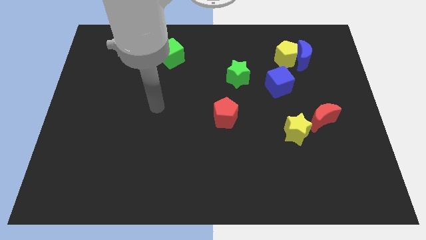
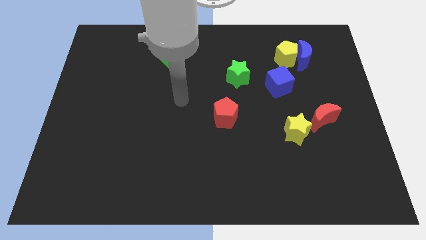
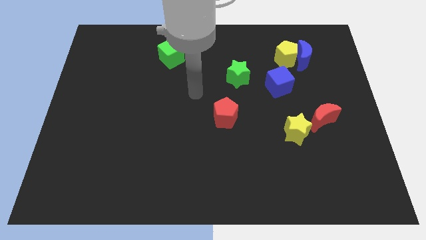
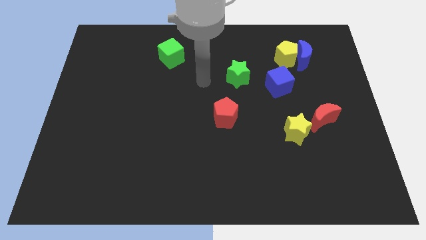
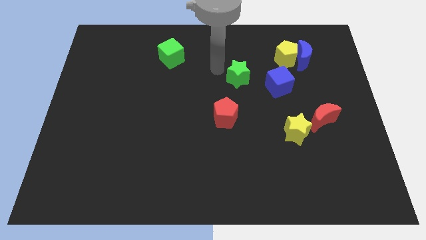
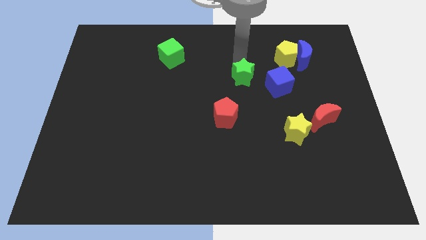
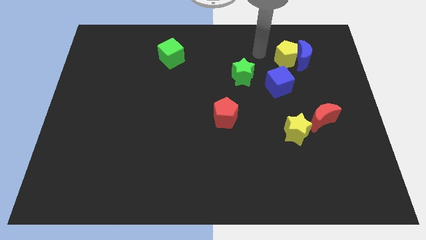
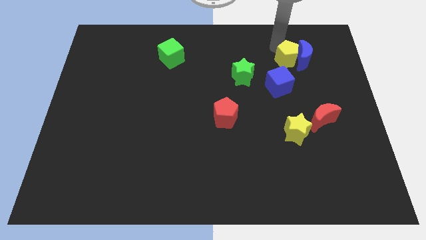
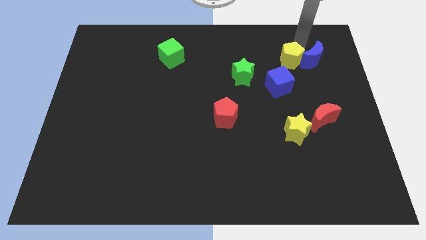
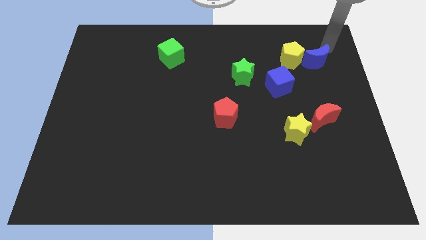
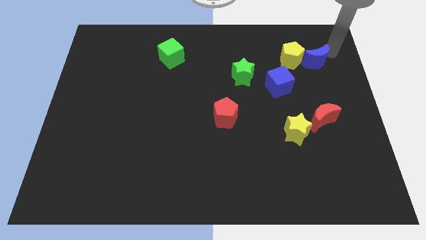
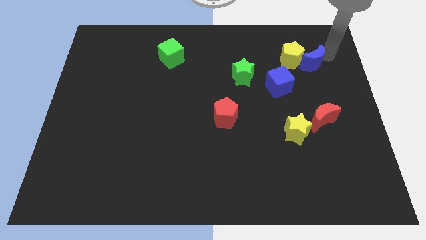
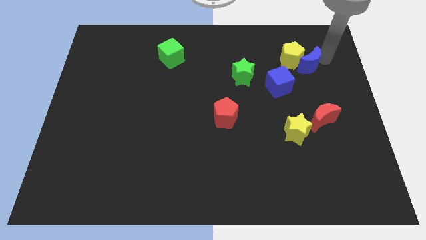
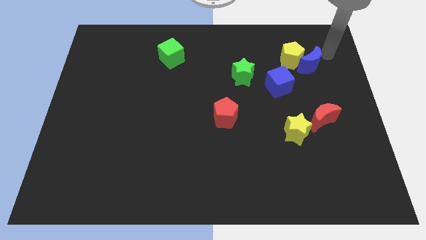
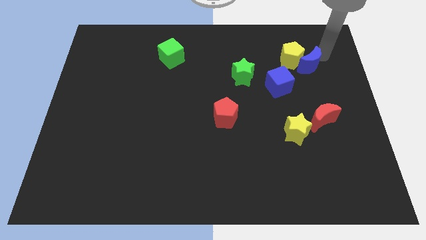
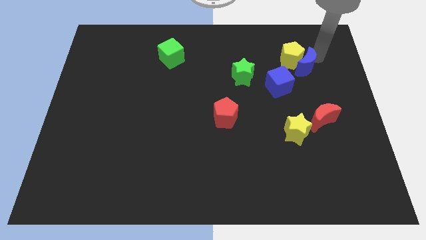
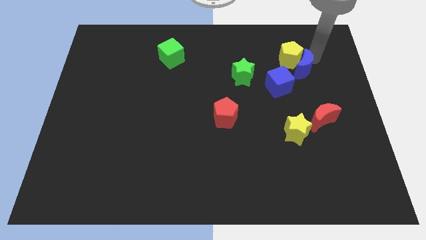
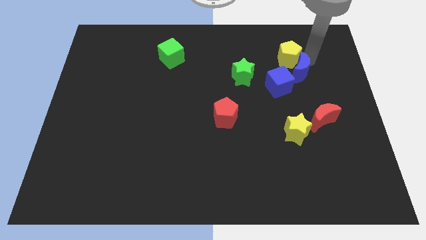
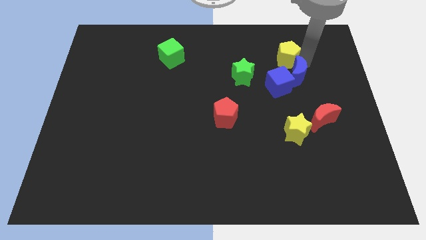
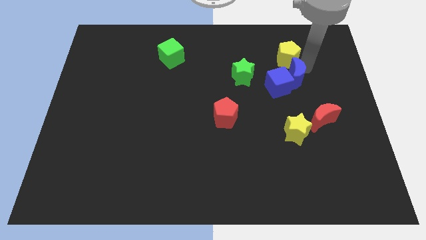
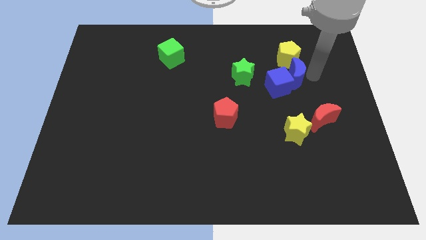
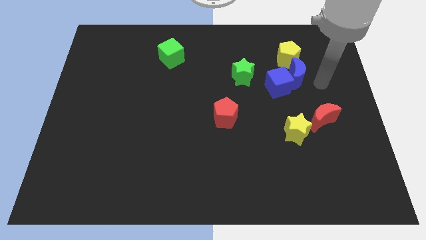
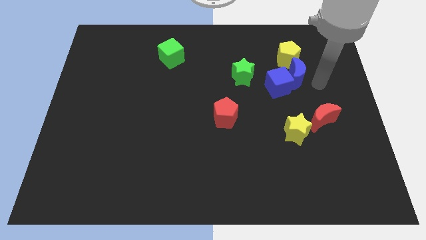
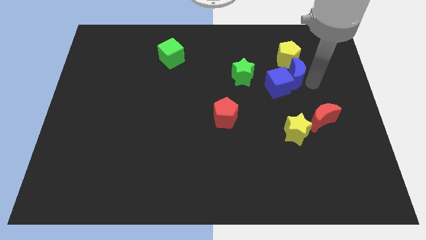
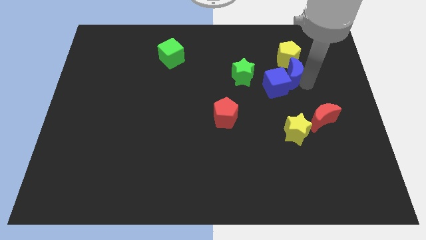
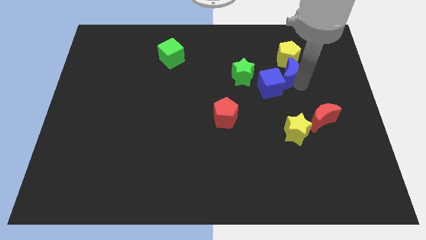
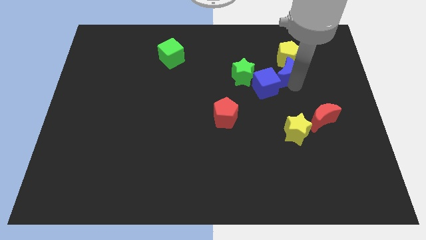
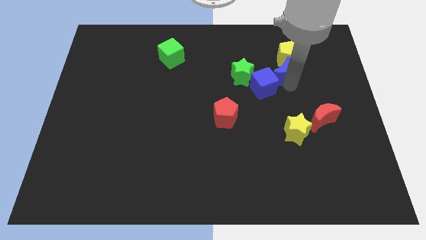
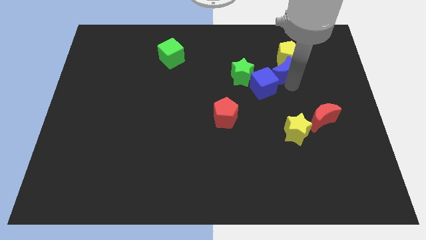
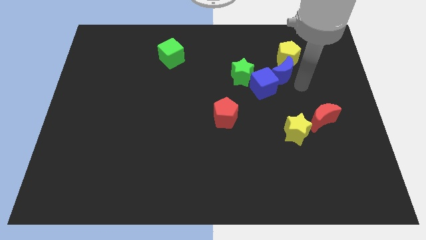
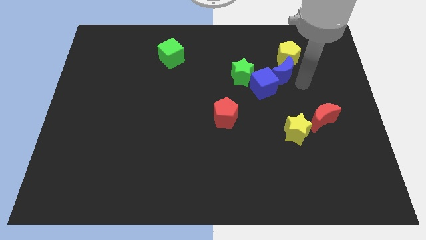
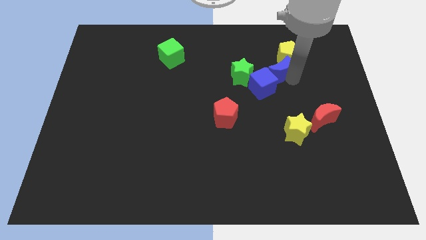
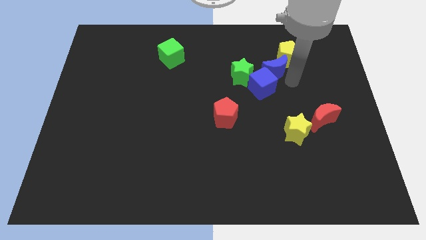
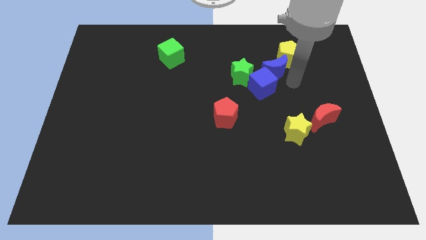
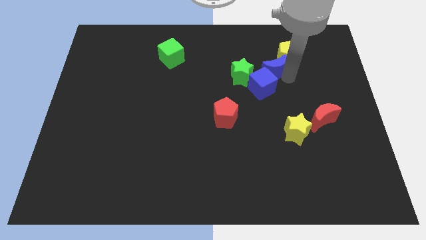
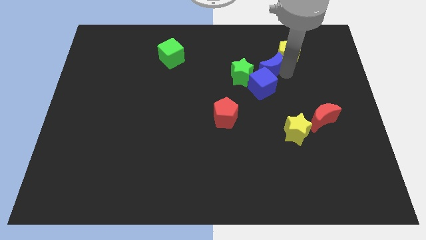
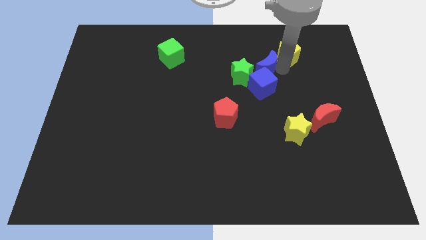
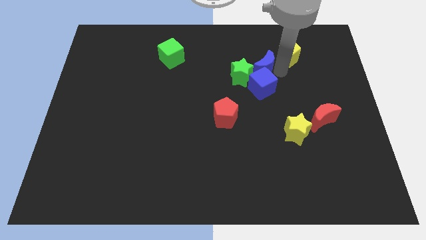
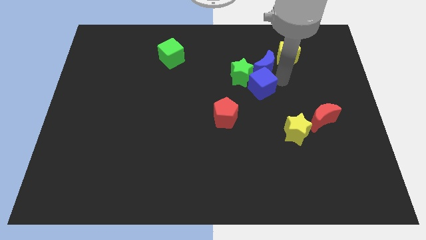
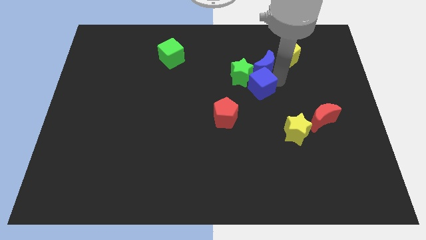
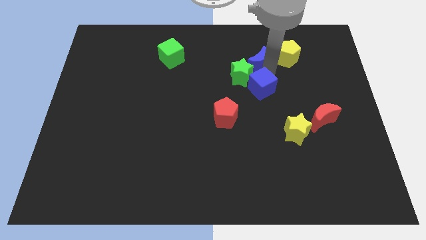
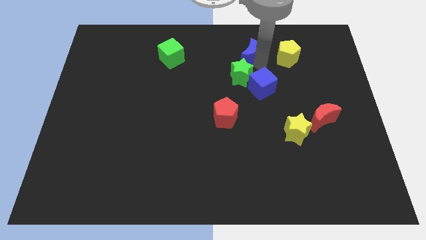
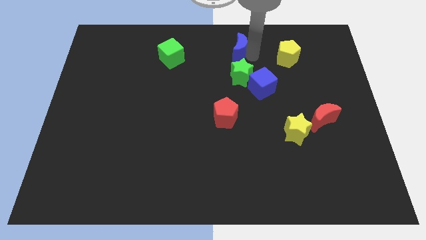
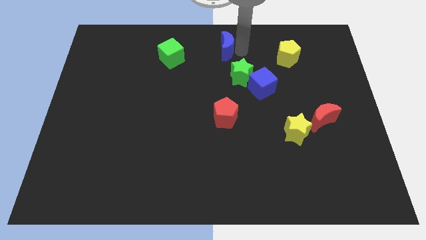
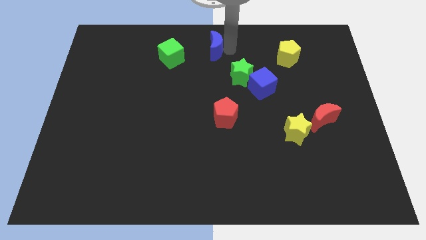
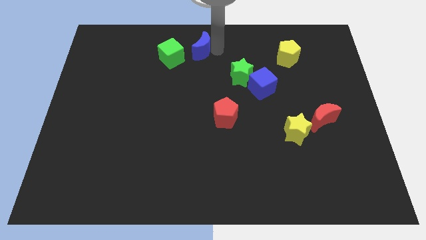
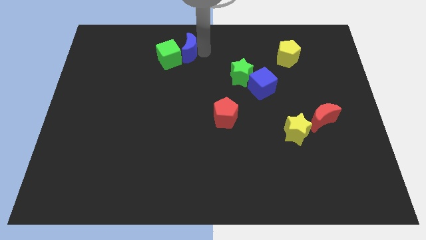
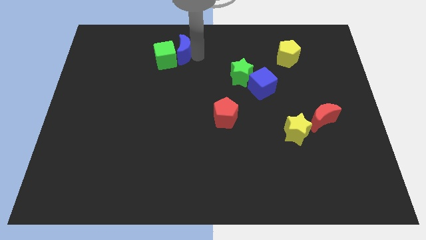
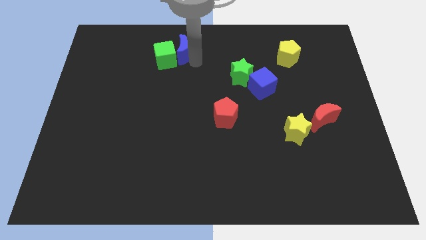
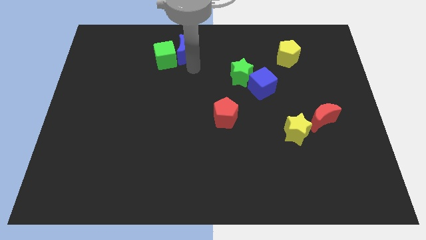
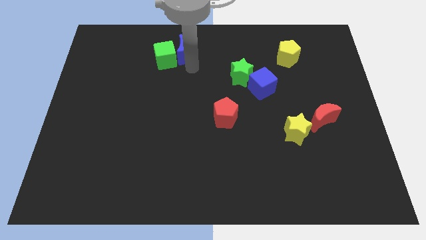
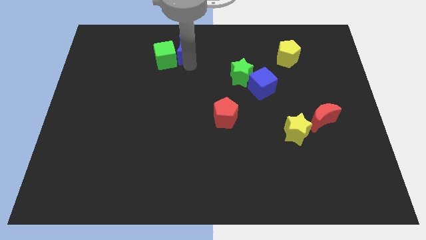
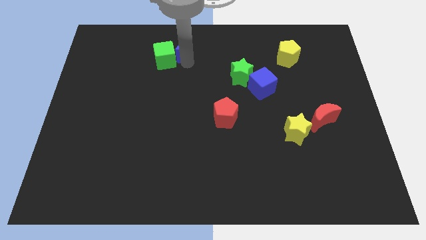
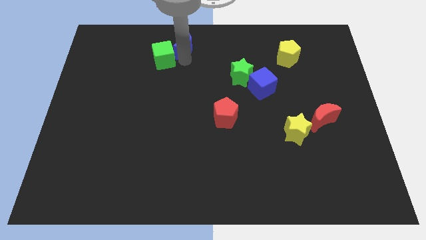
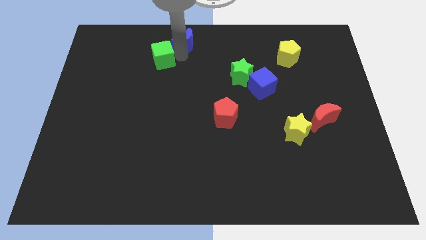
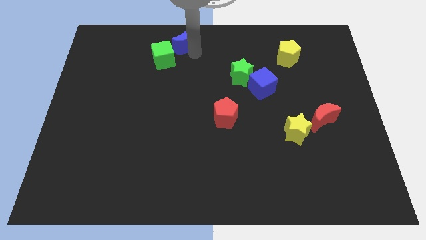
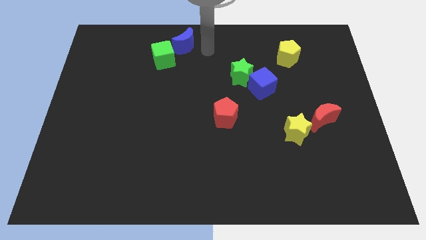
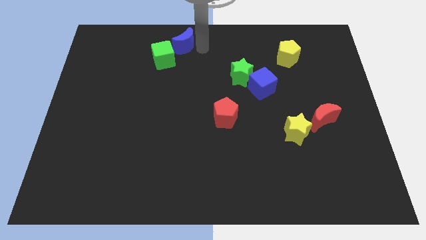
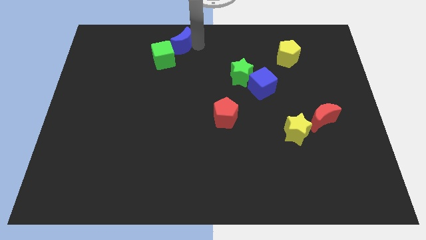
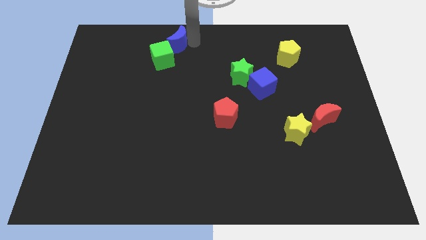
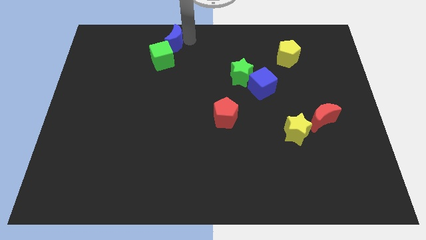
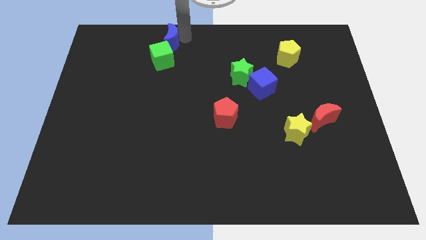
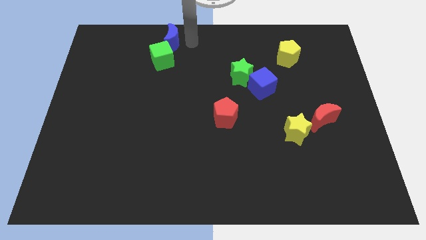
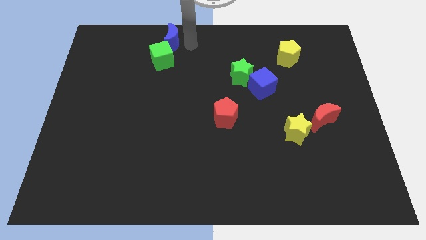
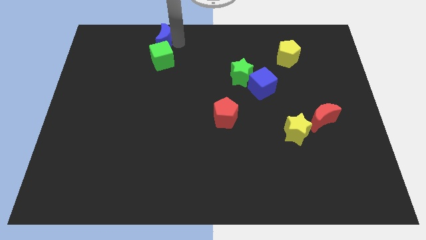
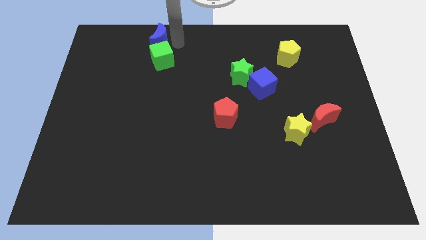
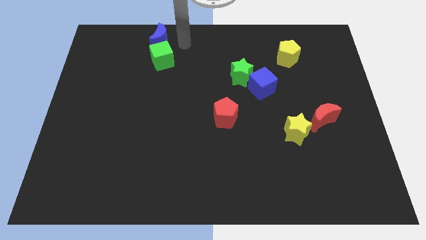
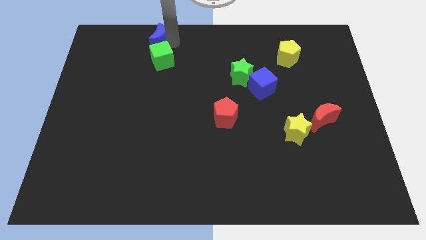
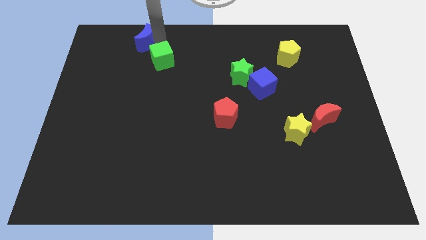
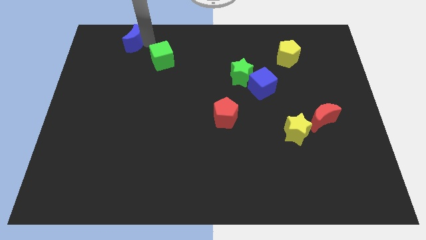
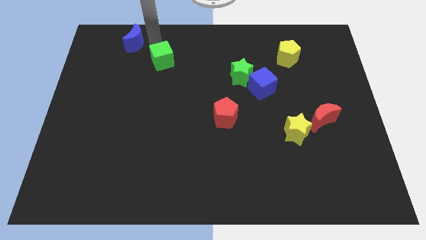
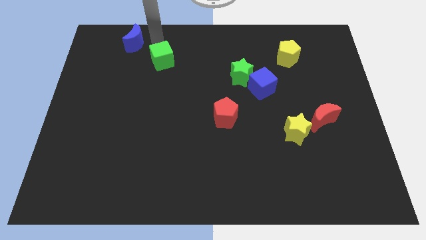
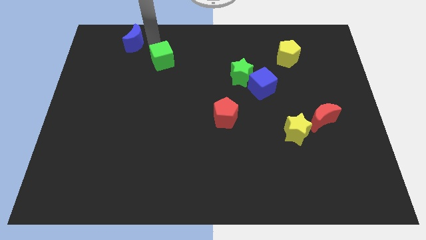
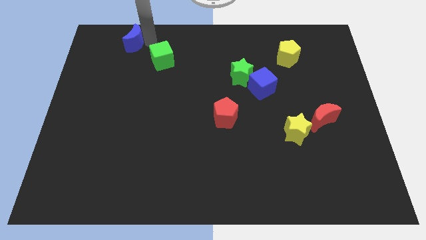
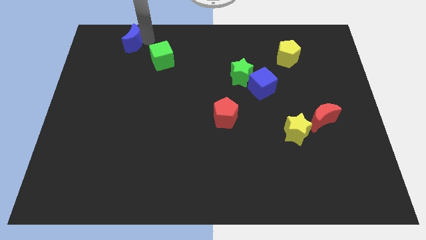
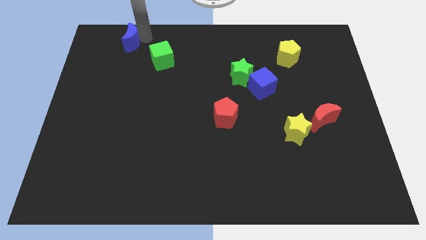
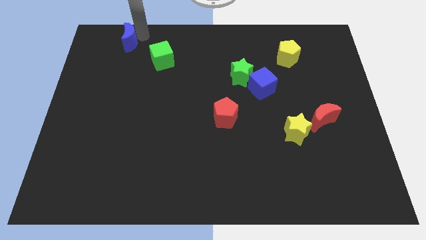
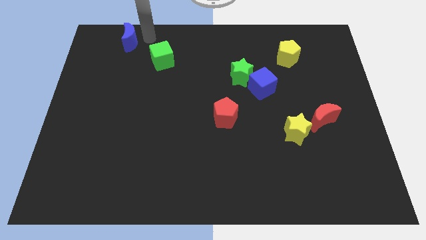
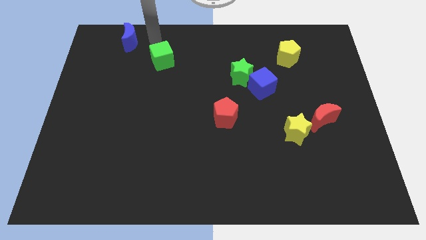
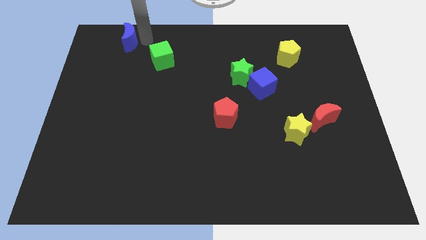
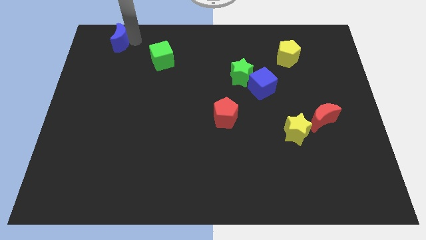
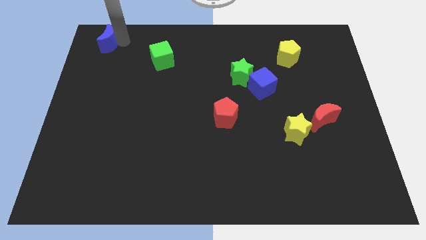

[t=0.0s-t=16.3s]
slide the blue moon to the top left of the board
